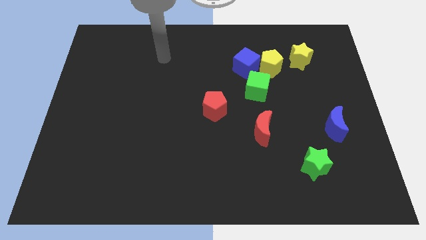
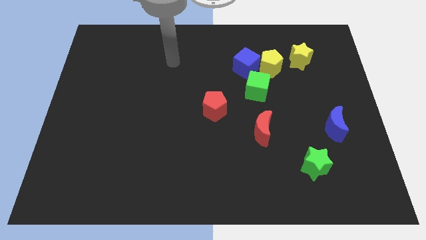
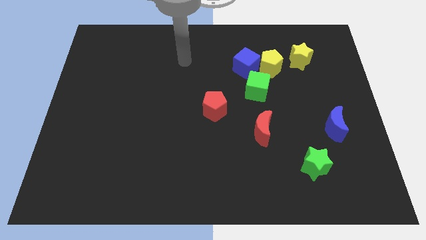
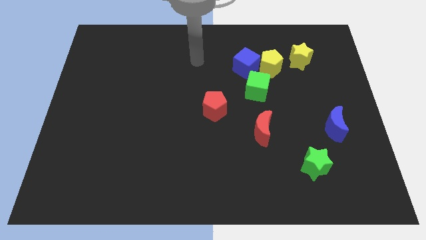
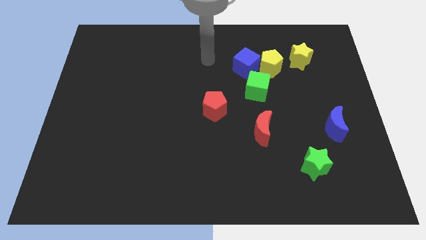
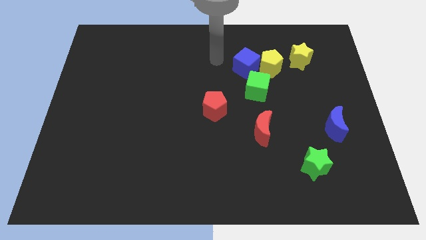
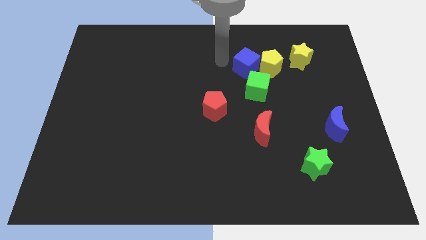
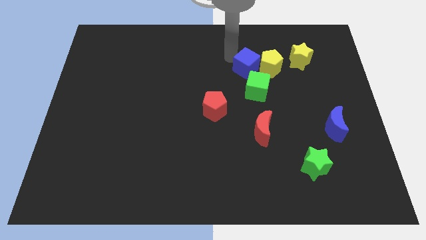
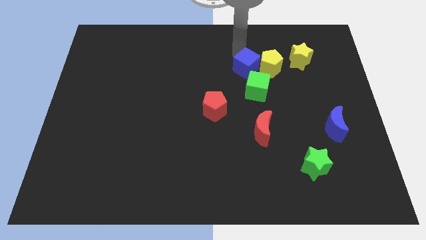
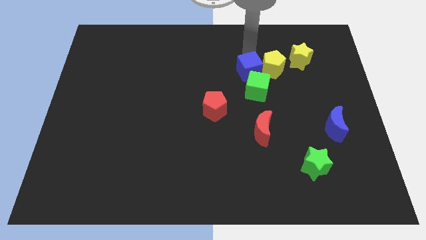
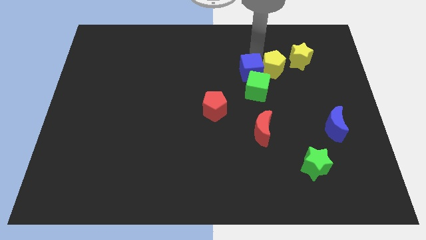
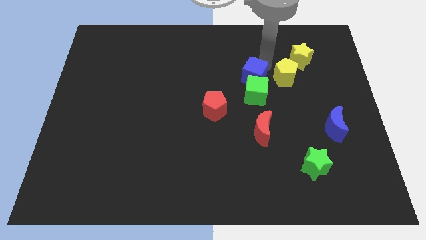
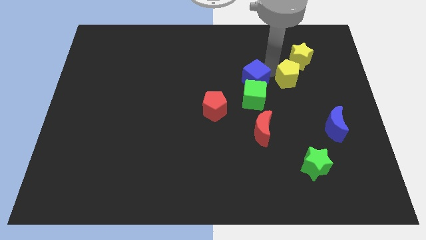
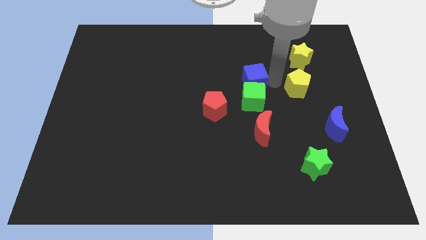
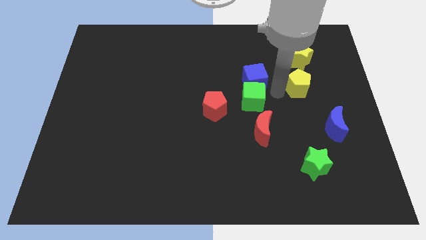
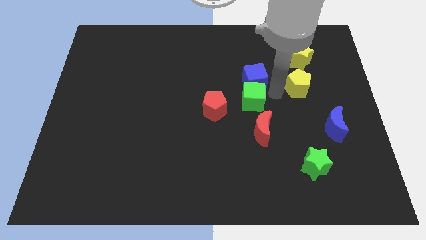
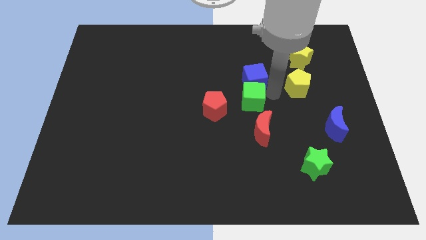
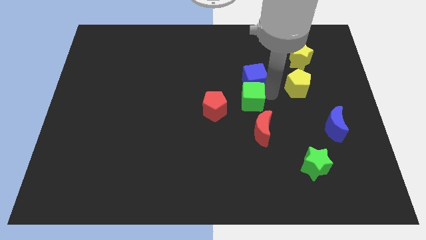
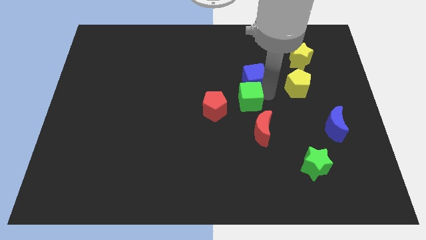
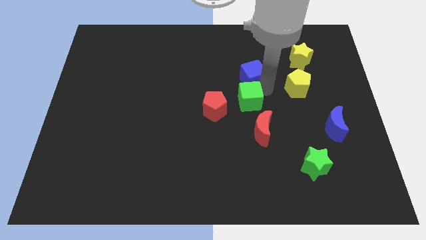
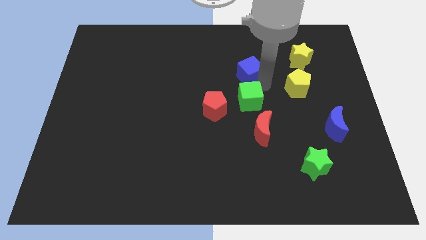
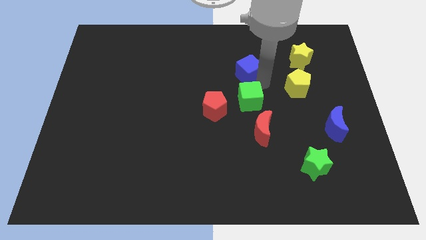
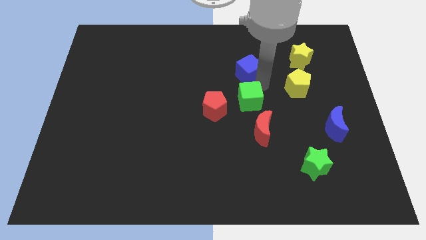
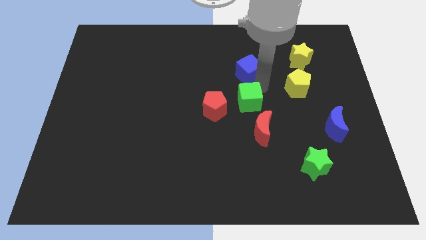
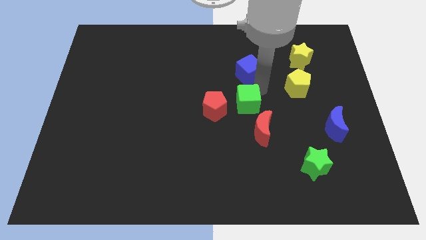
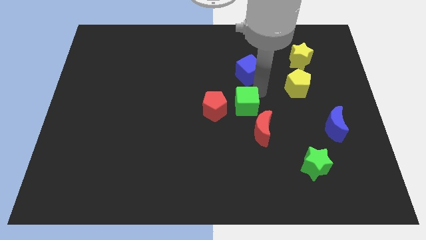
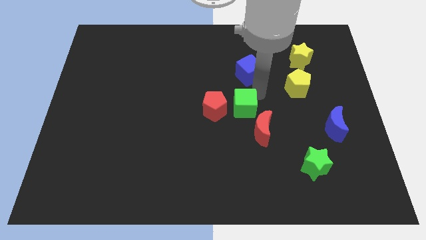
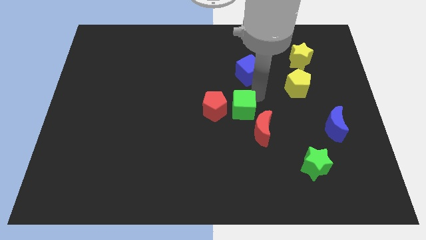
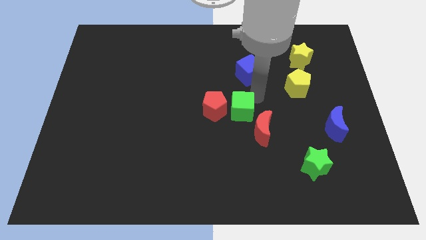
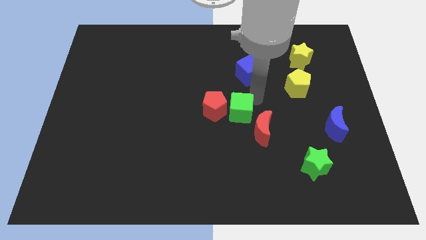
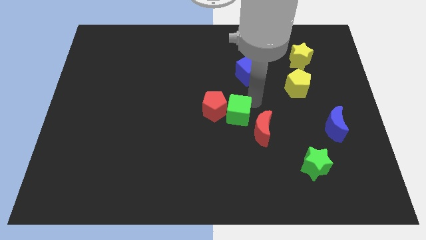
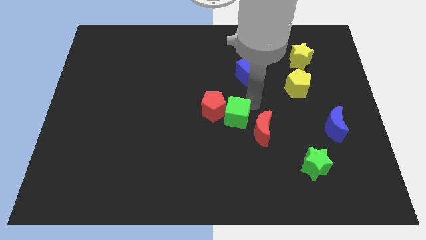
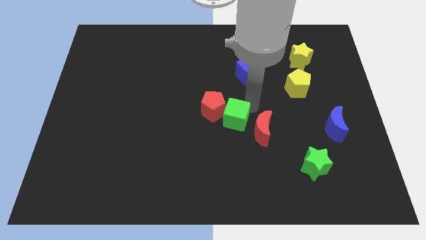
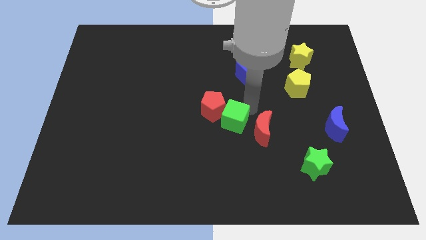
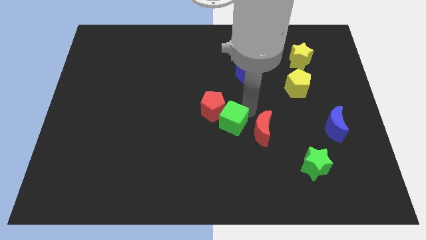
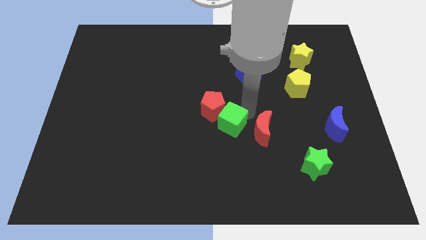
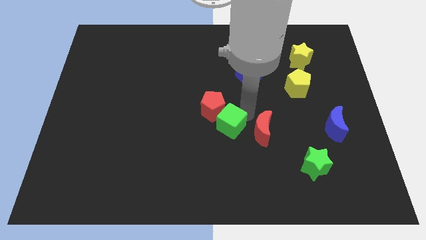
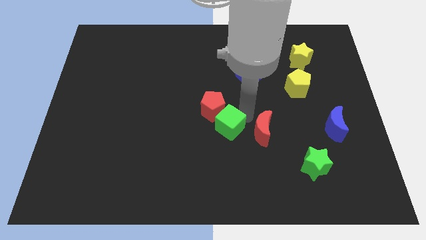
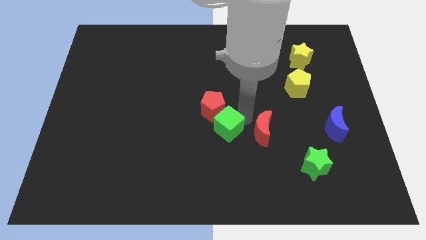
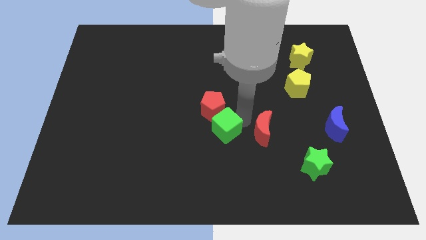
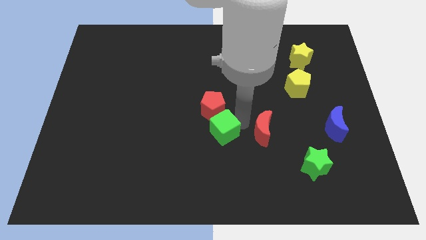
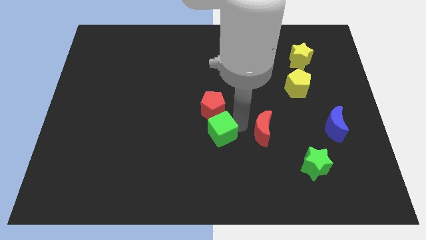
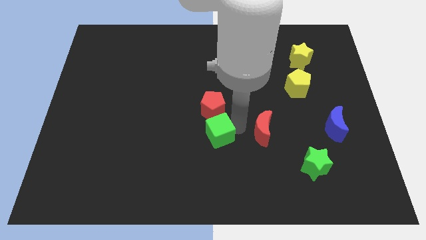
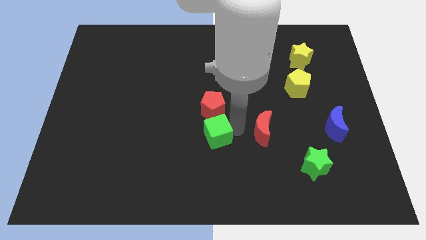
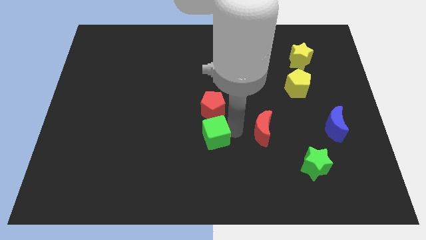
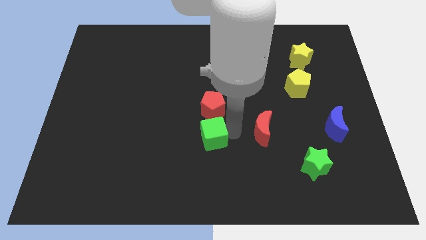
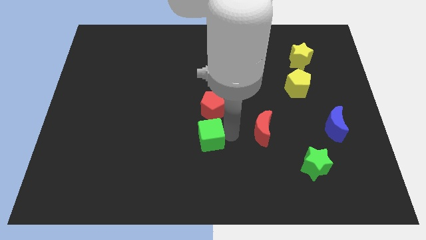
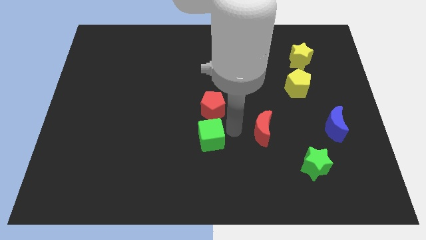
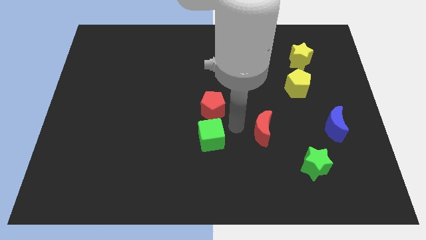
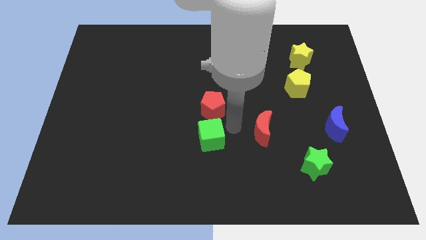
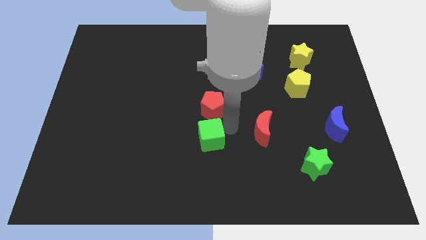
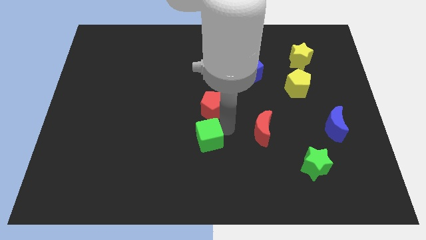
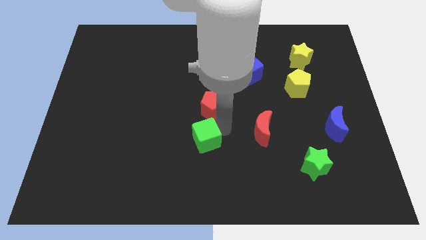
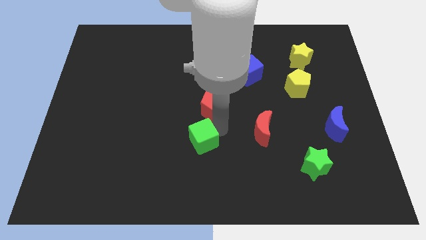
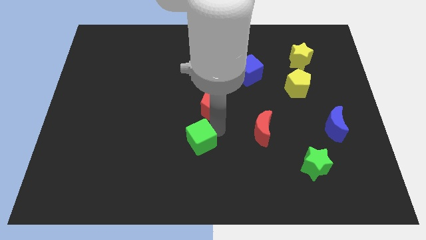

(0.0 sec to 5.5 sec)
push the green cube diagonally downwards and left

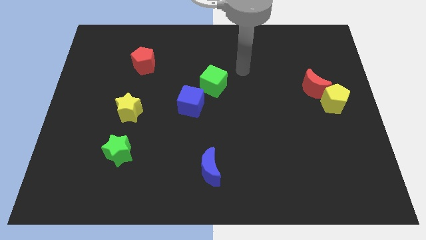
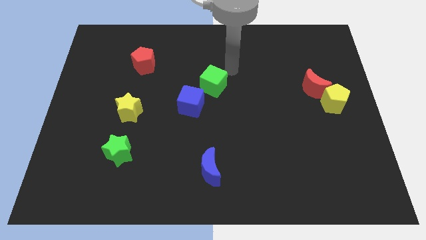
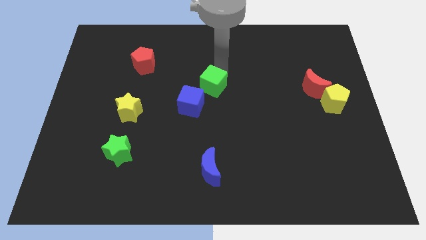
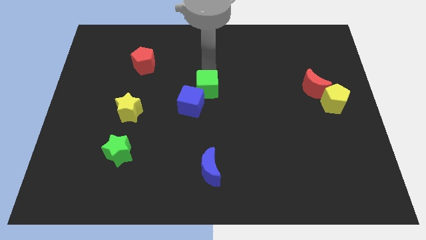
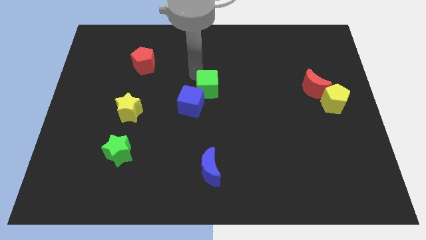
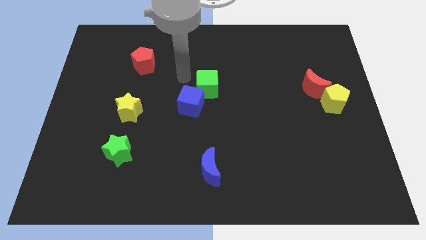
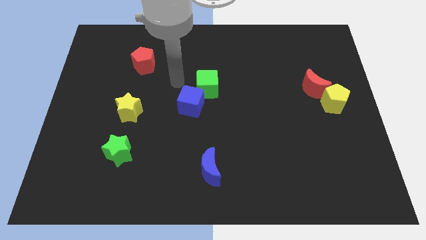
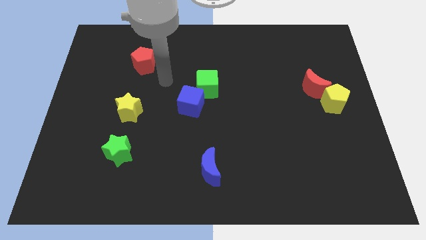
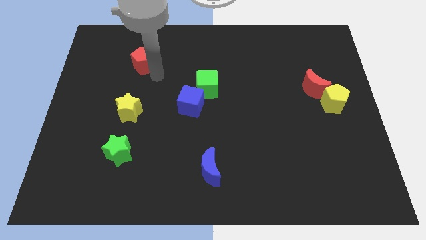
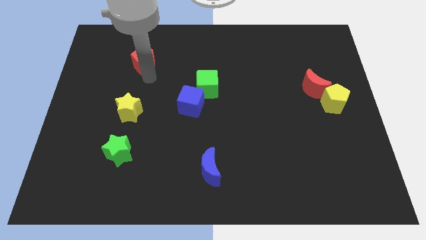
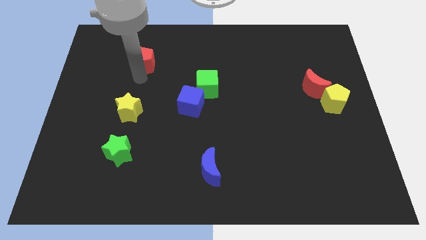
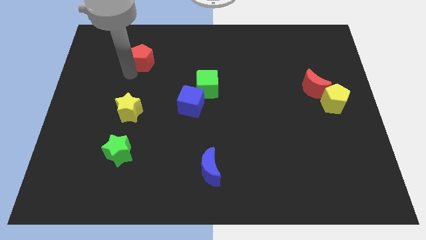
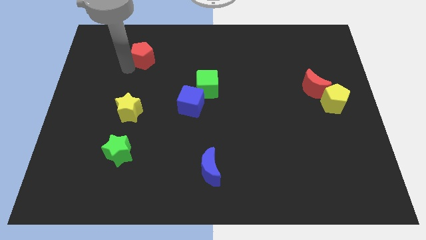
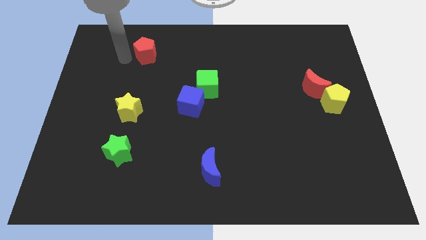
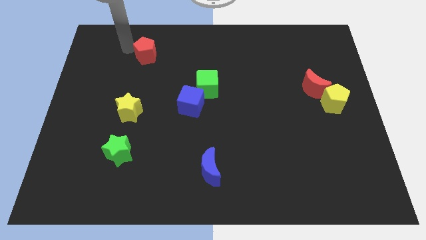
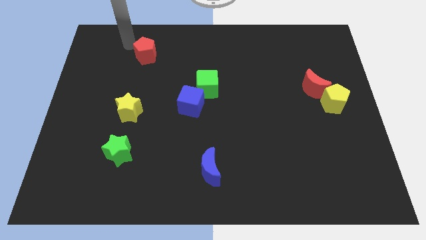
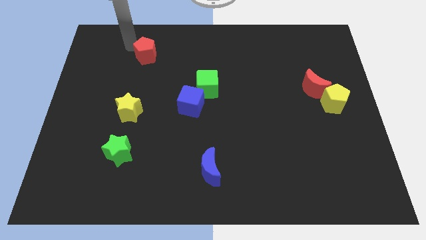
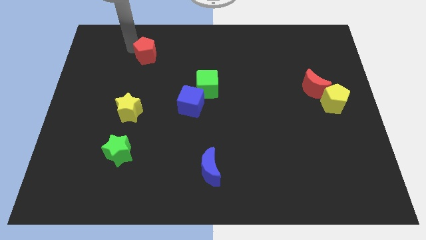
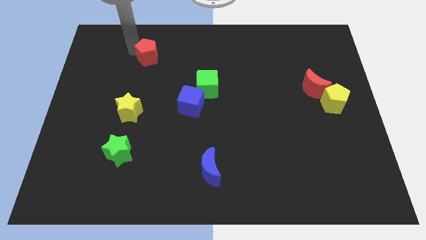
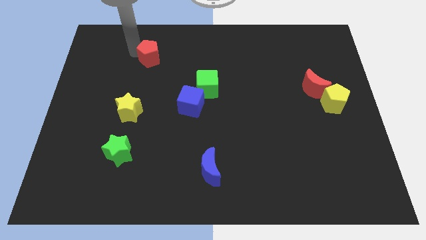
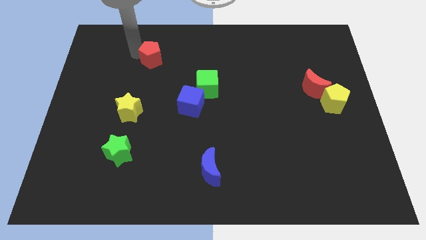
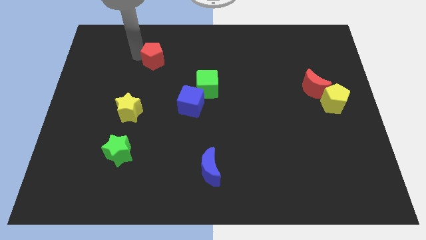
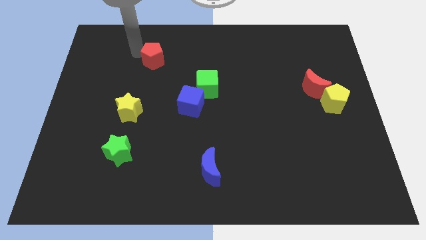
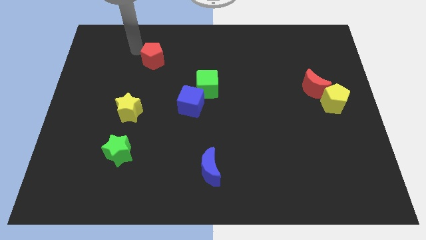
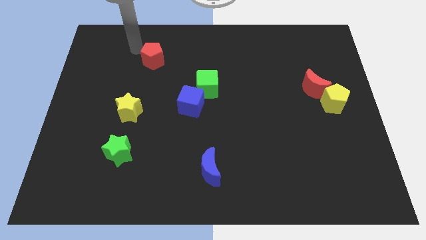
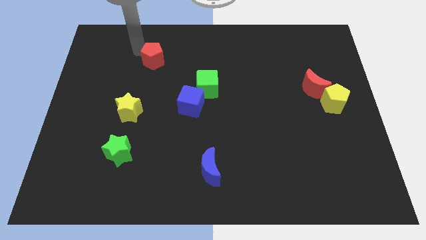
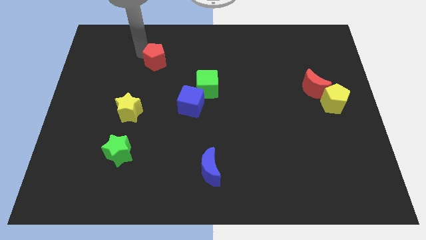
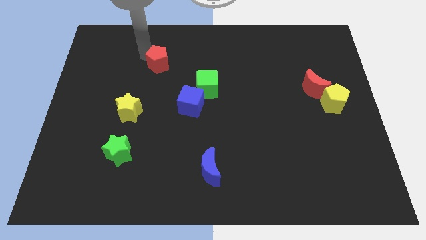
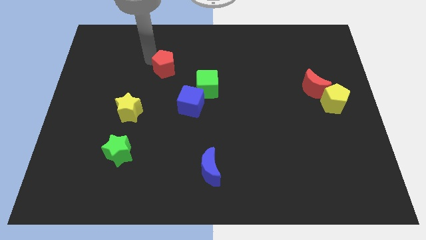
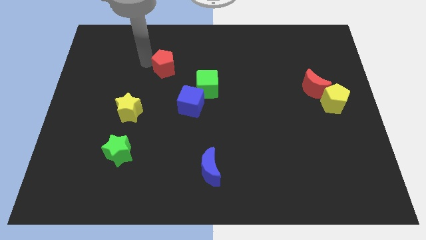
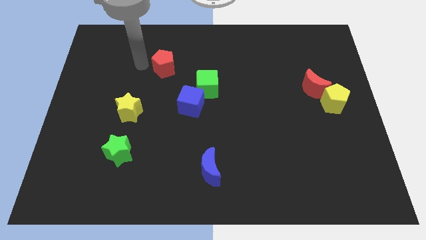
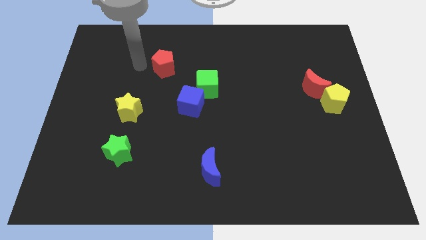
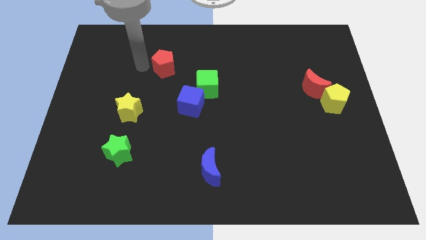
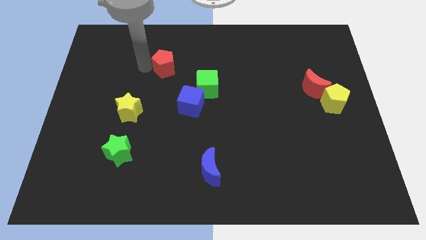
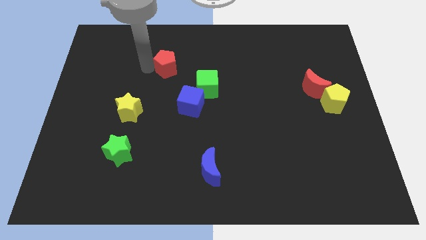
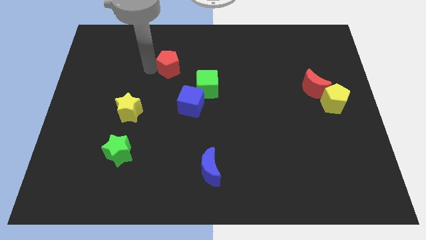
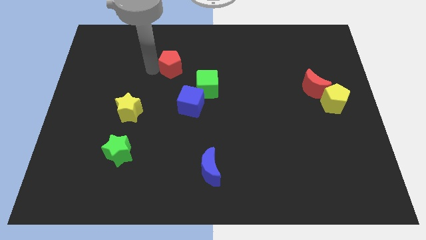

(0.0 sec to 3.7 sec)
slightly move the red pentagon to the right
